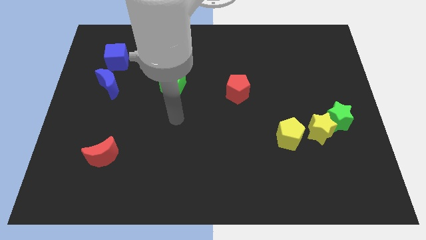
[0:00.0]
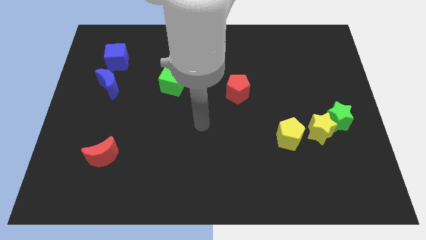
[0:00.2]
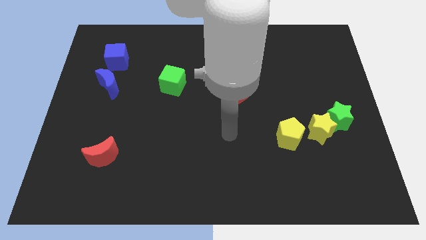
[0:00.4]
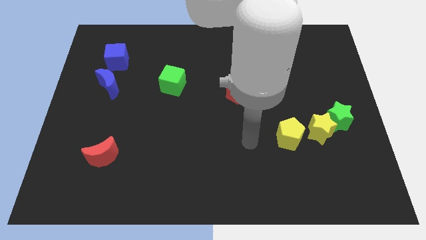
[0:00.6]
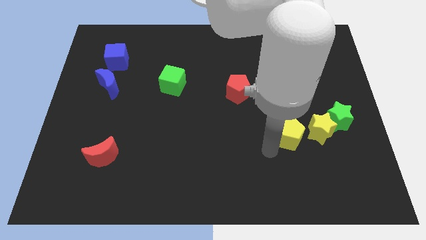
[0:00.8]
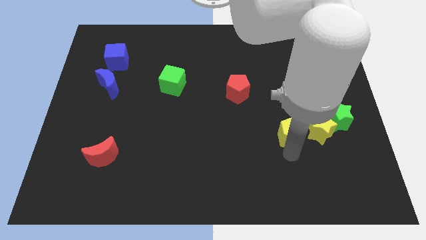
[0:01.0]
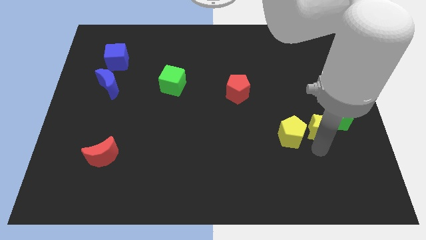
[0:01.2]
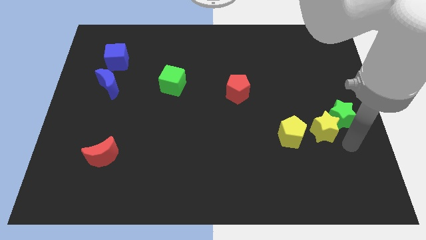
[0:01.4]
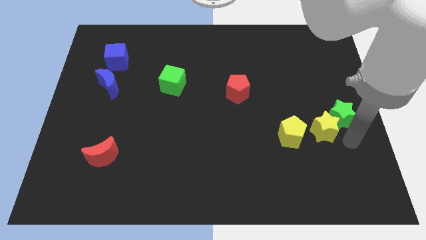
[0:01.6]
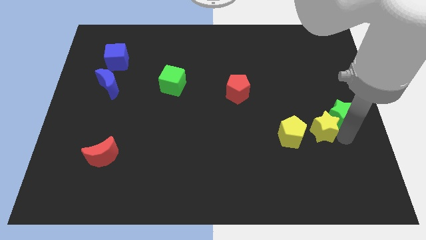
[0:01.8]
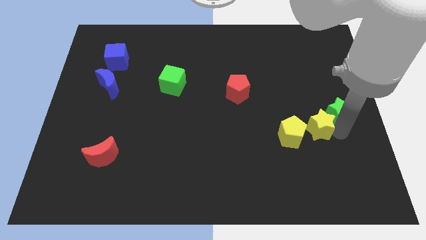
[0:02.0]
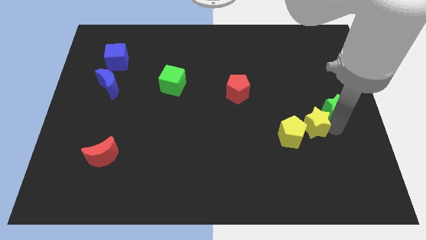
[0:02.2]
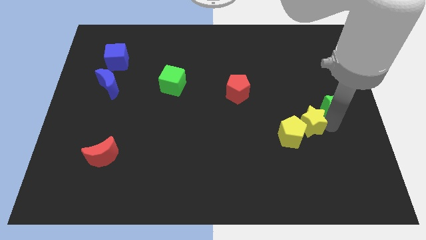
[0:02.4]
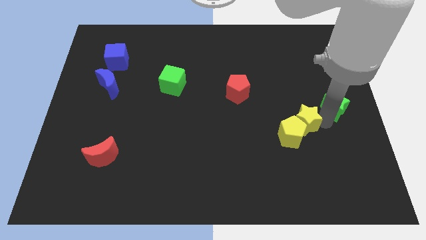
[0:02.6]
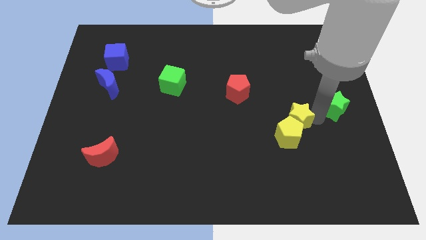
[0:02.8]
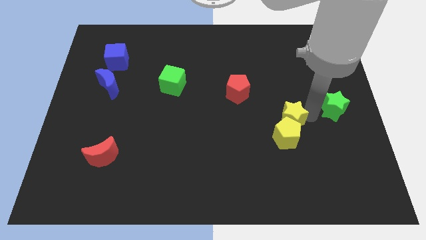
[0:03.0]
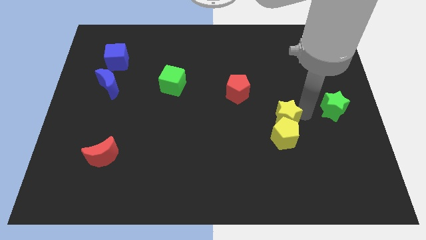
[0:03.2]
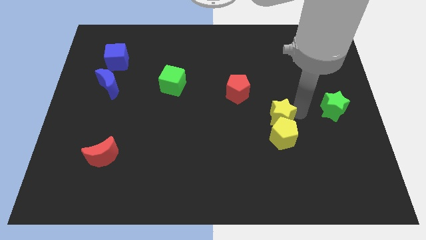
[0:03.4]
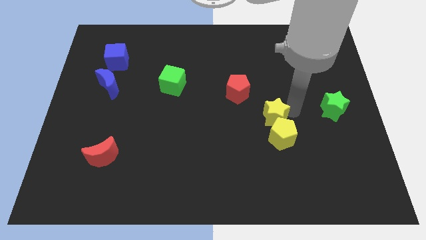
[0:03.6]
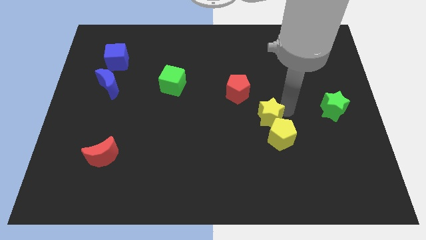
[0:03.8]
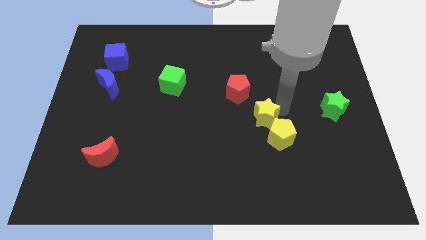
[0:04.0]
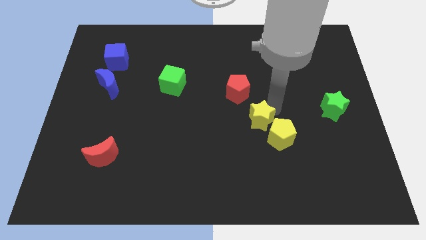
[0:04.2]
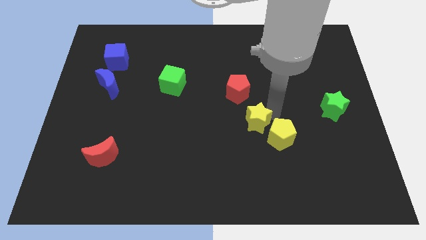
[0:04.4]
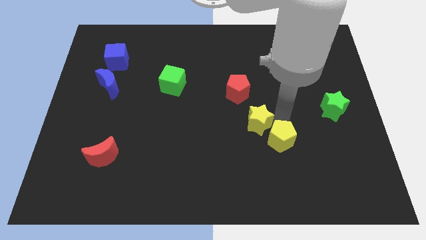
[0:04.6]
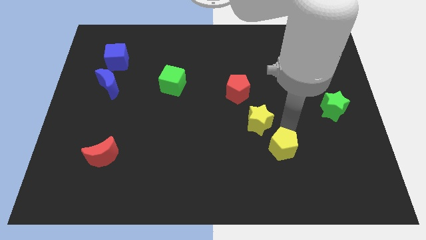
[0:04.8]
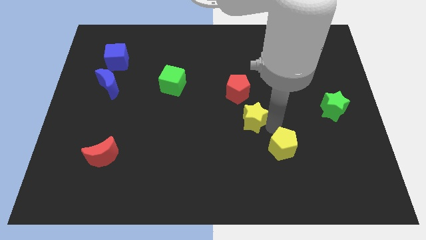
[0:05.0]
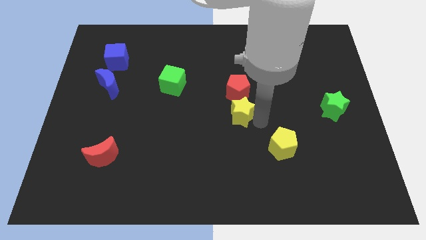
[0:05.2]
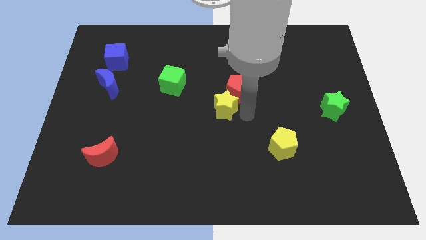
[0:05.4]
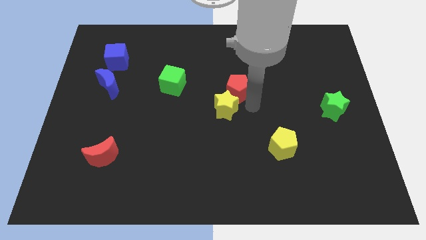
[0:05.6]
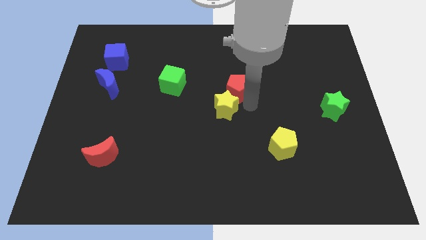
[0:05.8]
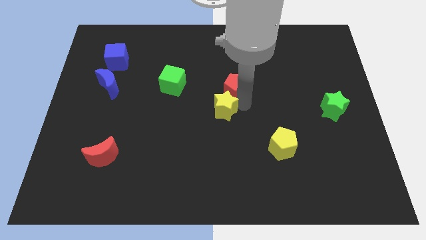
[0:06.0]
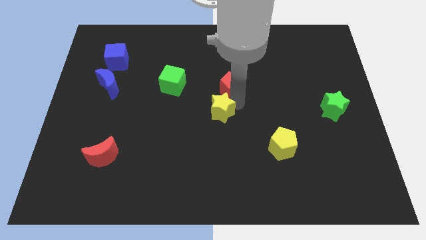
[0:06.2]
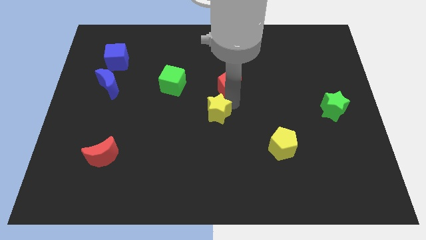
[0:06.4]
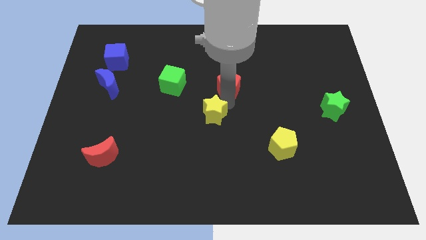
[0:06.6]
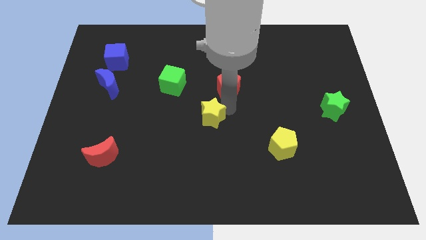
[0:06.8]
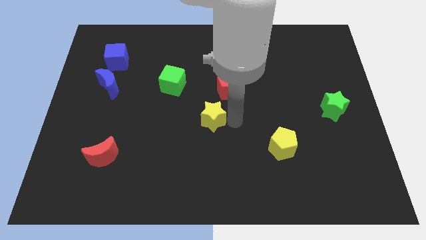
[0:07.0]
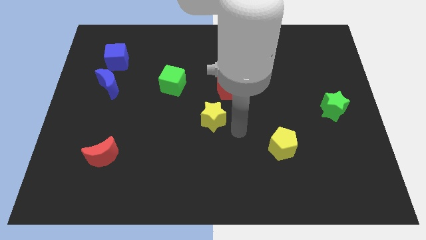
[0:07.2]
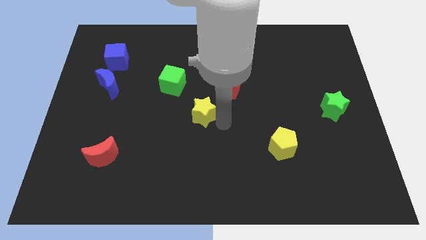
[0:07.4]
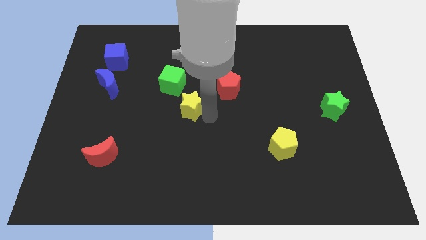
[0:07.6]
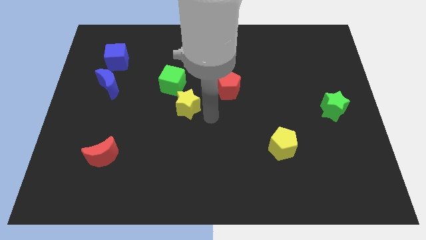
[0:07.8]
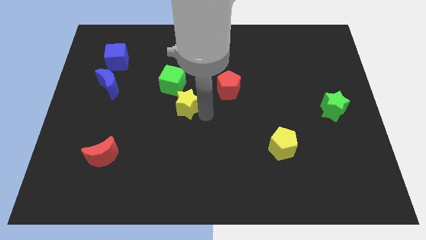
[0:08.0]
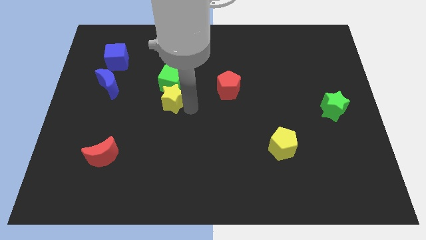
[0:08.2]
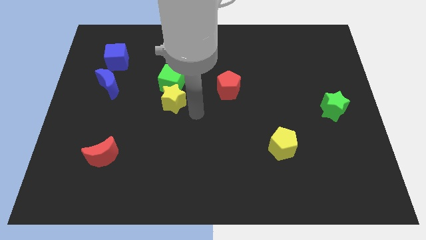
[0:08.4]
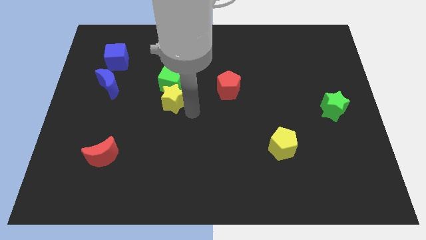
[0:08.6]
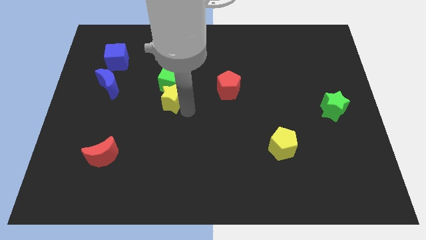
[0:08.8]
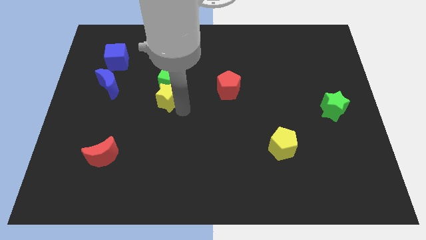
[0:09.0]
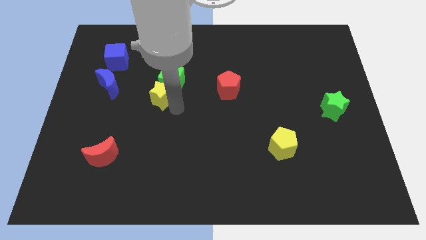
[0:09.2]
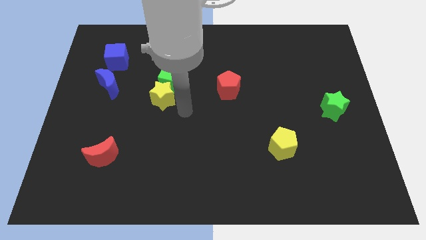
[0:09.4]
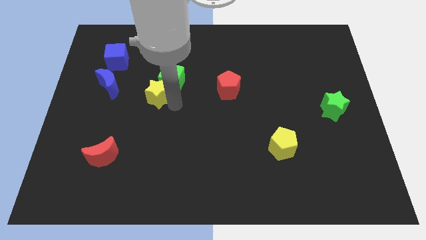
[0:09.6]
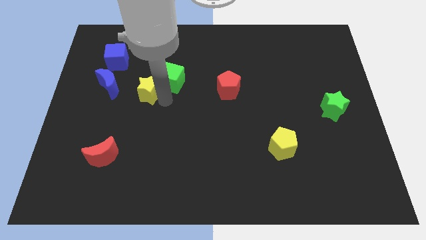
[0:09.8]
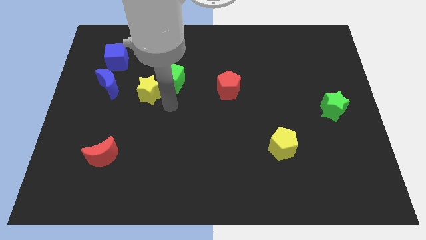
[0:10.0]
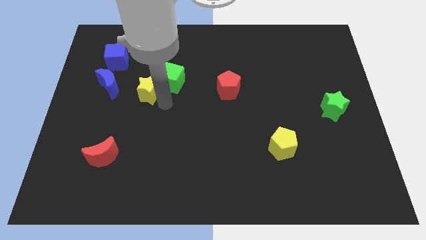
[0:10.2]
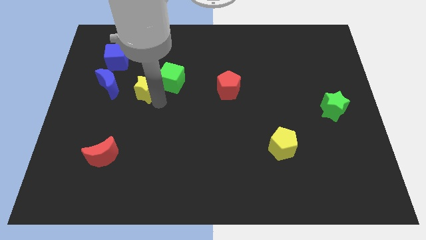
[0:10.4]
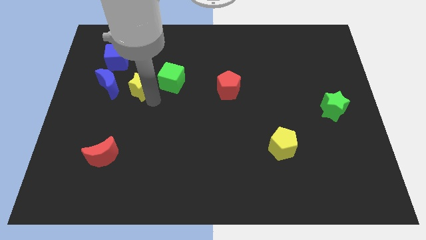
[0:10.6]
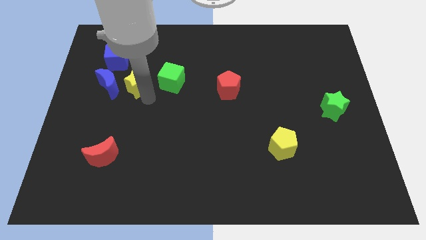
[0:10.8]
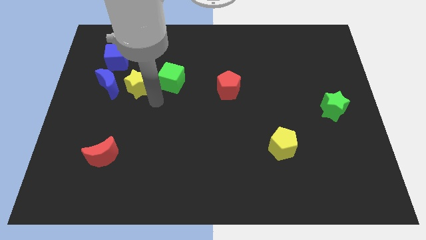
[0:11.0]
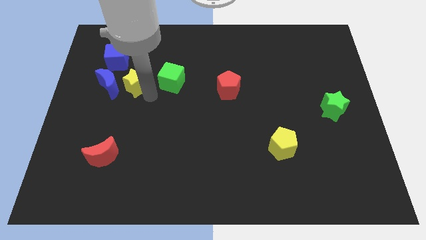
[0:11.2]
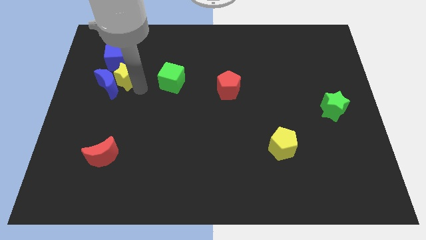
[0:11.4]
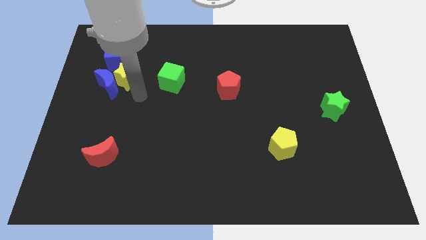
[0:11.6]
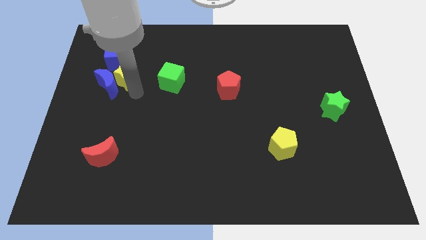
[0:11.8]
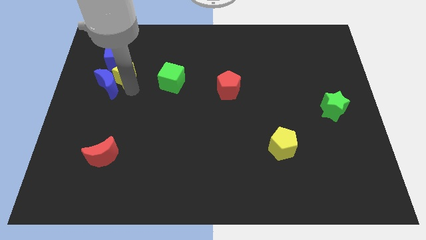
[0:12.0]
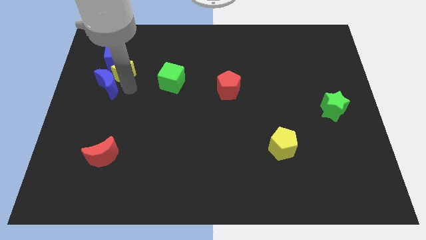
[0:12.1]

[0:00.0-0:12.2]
put the yellow star towards the blue cube
